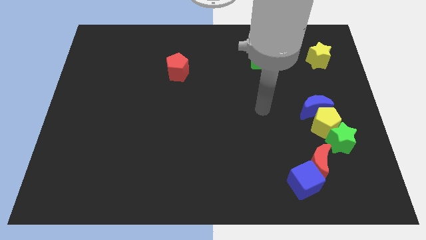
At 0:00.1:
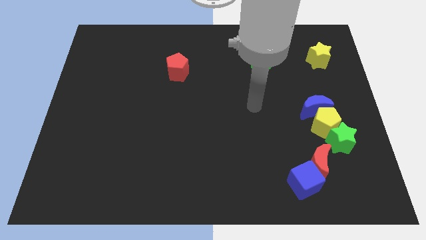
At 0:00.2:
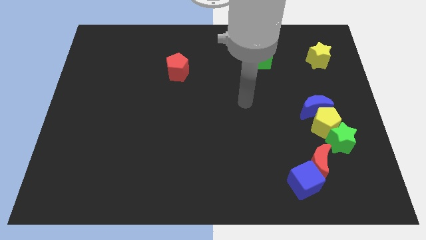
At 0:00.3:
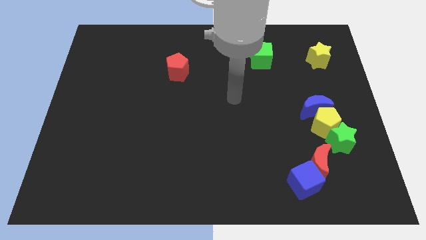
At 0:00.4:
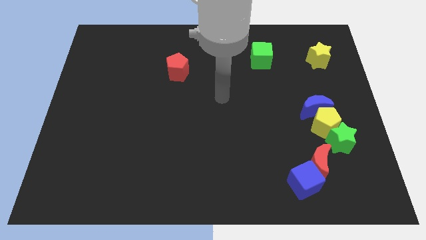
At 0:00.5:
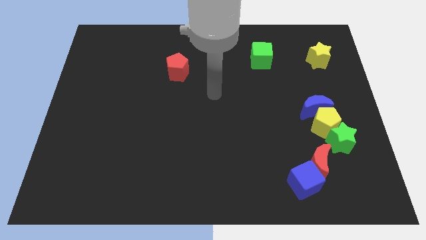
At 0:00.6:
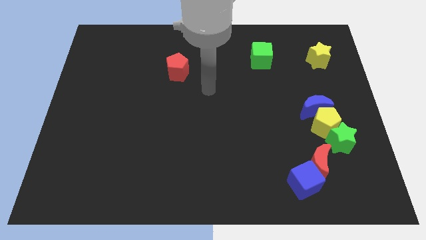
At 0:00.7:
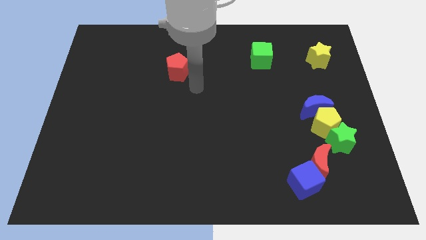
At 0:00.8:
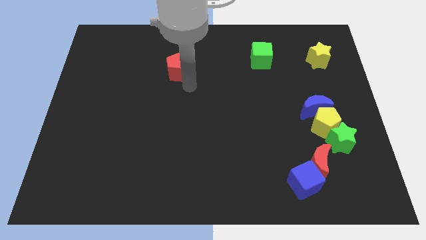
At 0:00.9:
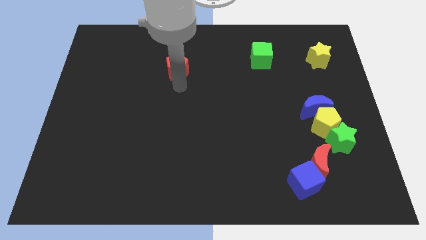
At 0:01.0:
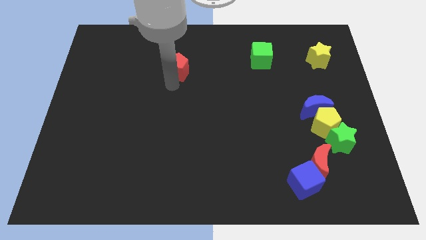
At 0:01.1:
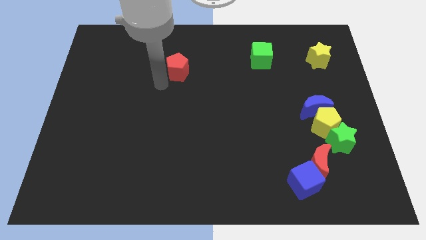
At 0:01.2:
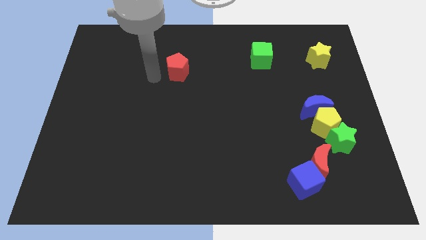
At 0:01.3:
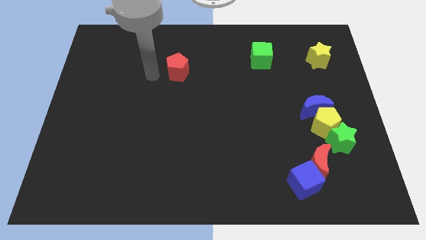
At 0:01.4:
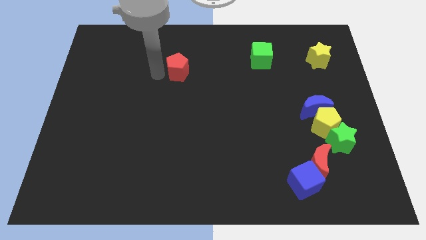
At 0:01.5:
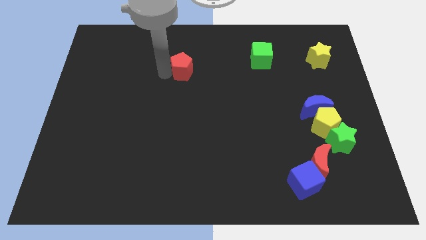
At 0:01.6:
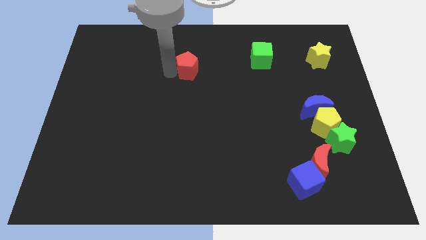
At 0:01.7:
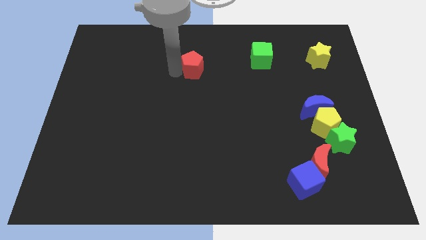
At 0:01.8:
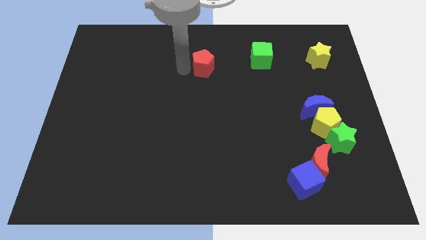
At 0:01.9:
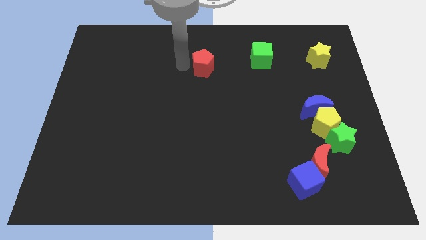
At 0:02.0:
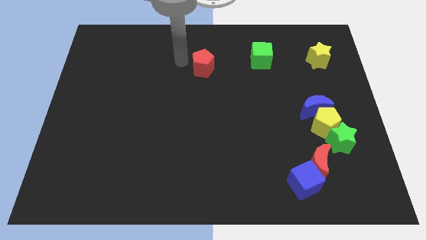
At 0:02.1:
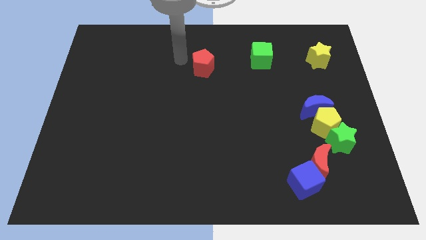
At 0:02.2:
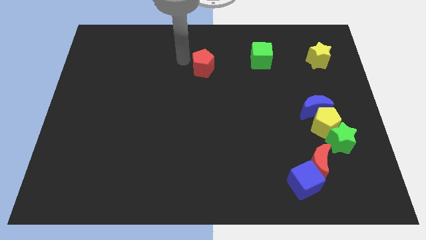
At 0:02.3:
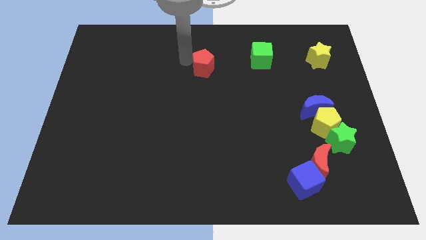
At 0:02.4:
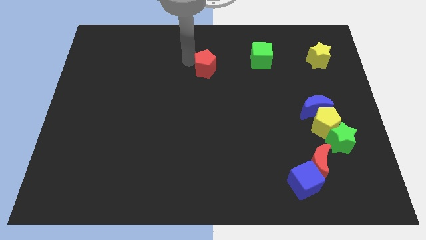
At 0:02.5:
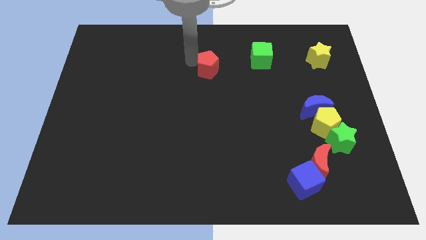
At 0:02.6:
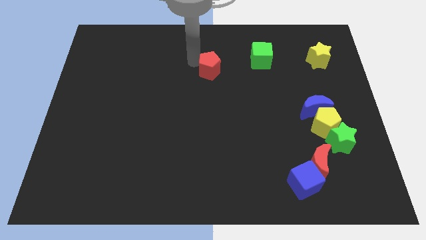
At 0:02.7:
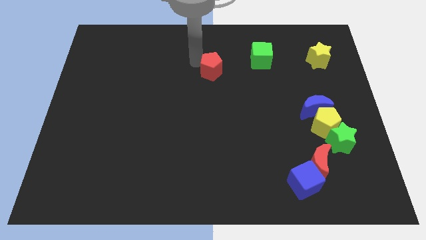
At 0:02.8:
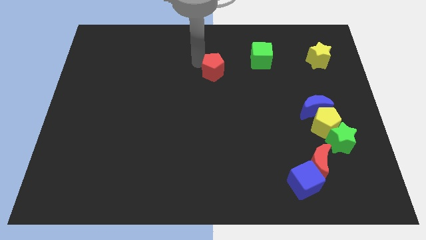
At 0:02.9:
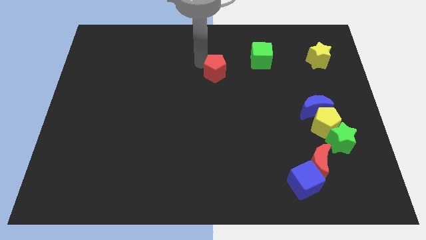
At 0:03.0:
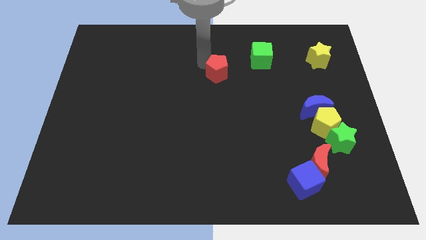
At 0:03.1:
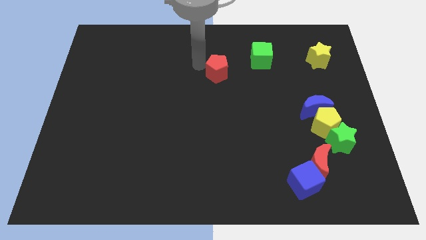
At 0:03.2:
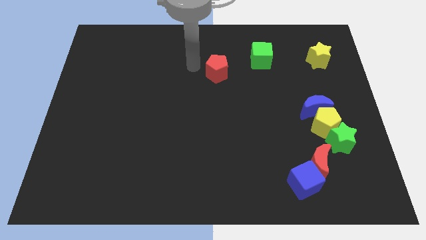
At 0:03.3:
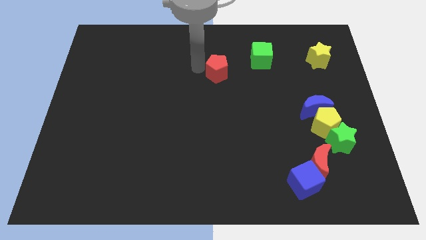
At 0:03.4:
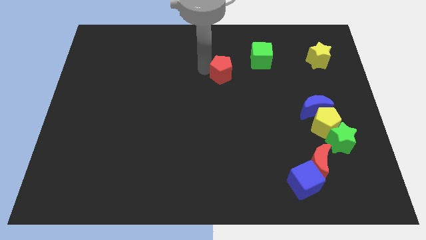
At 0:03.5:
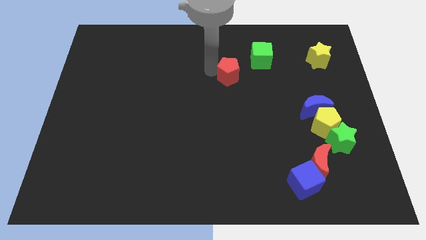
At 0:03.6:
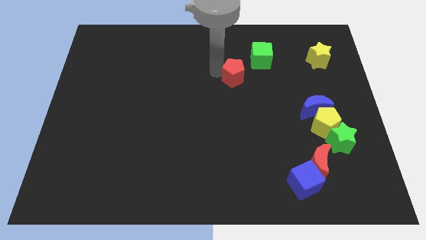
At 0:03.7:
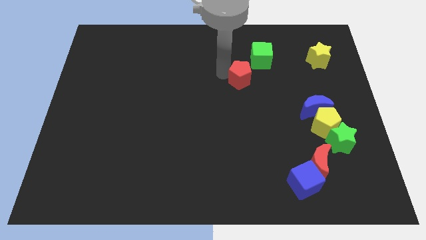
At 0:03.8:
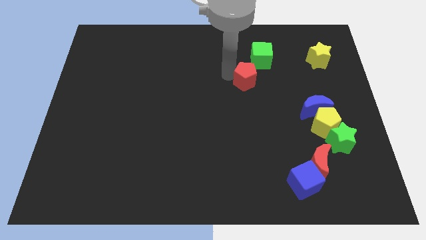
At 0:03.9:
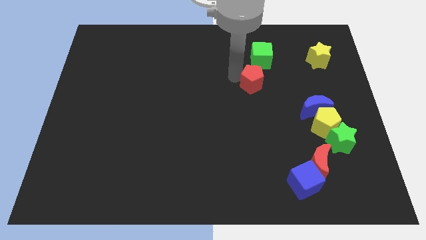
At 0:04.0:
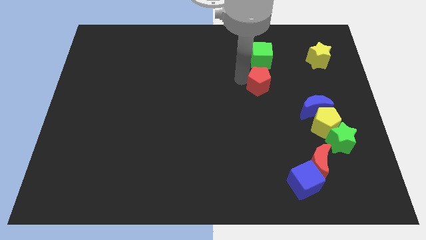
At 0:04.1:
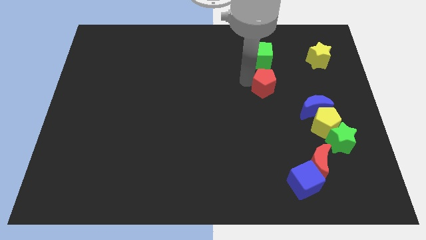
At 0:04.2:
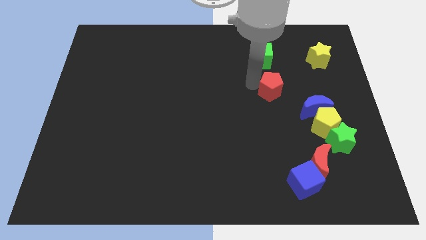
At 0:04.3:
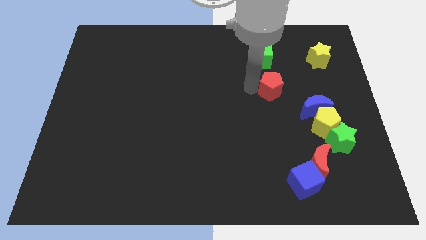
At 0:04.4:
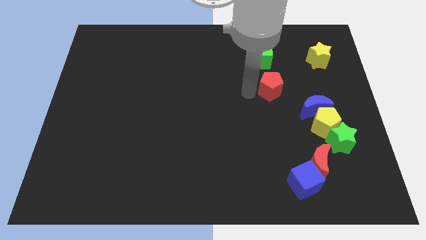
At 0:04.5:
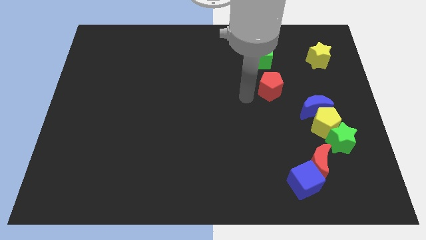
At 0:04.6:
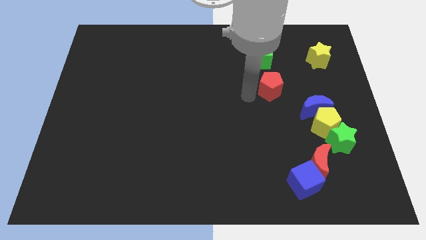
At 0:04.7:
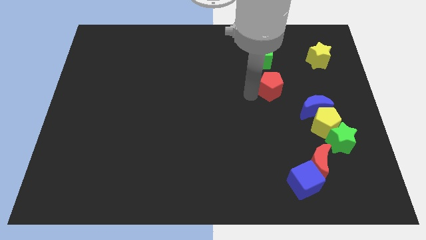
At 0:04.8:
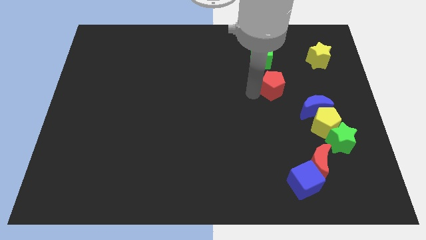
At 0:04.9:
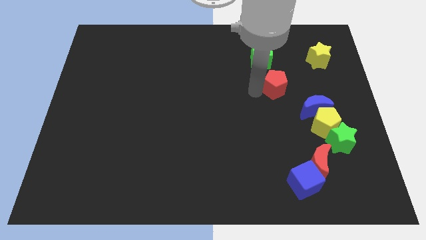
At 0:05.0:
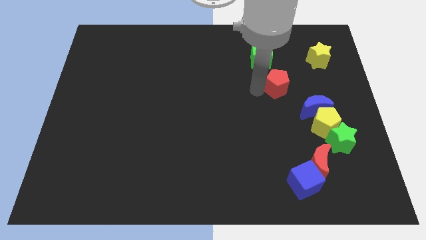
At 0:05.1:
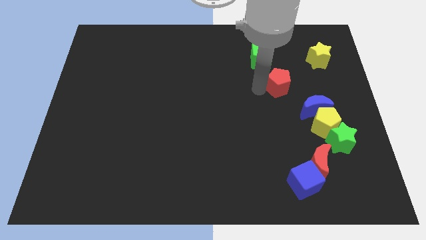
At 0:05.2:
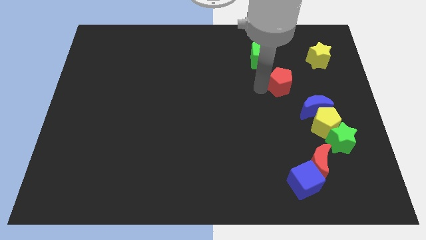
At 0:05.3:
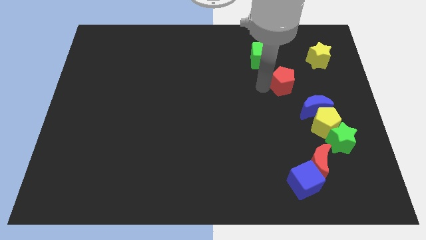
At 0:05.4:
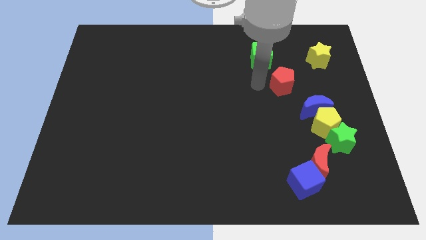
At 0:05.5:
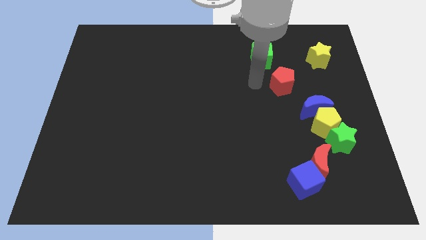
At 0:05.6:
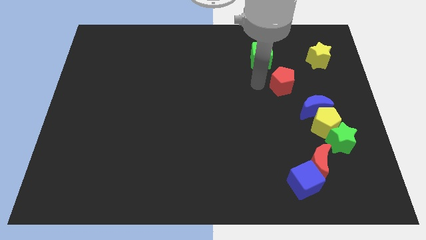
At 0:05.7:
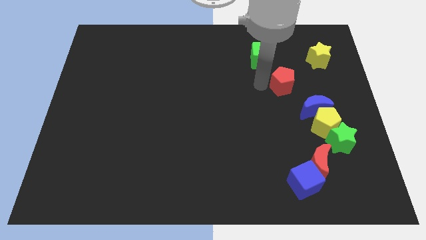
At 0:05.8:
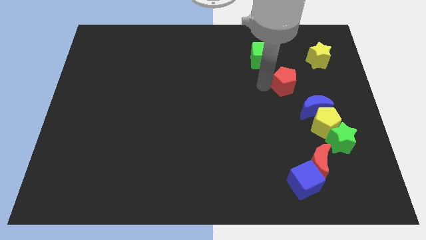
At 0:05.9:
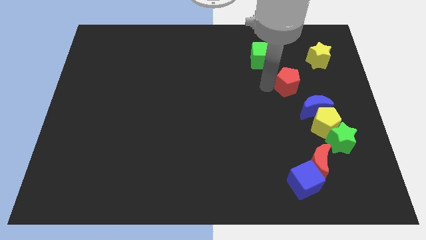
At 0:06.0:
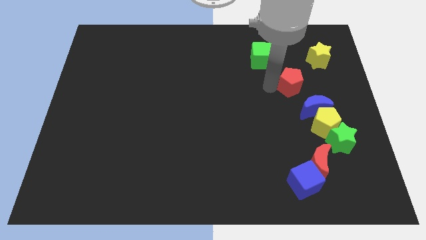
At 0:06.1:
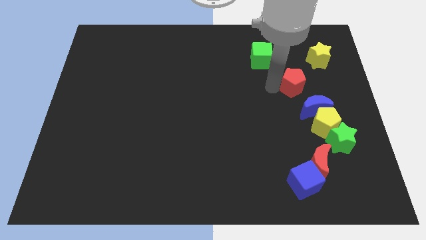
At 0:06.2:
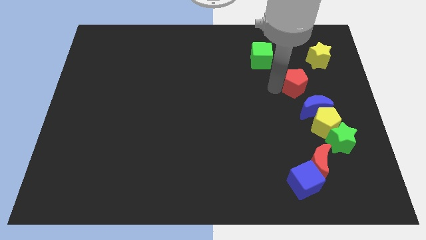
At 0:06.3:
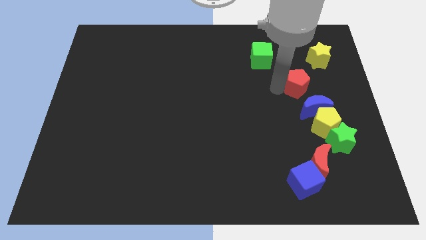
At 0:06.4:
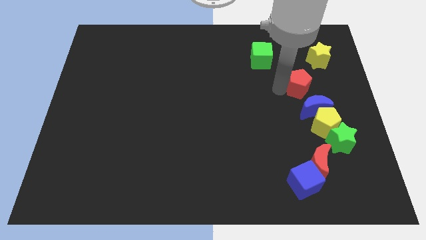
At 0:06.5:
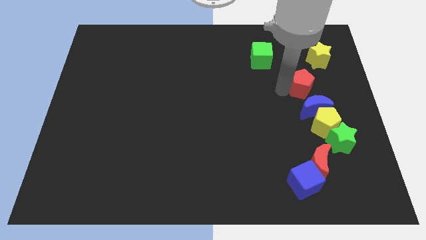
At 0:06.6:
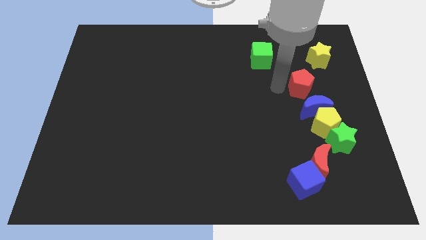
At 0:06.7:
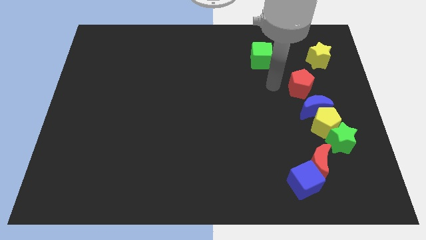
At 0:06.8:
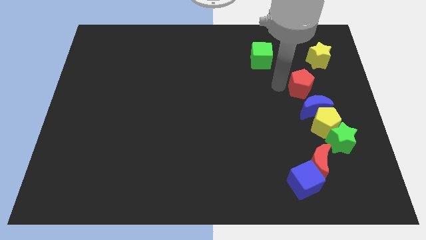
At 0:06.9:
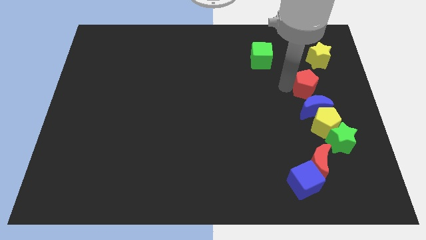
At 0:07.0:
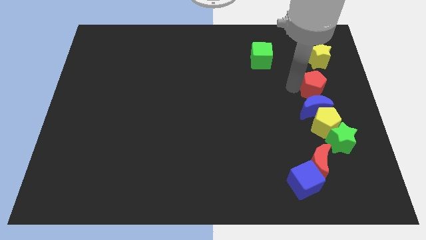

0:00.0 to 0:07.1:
move the red pentagon to the bottom of the yellow star
